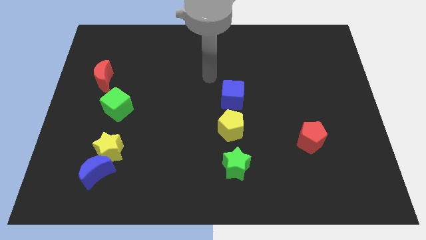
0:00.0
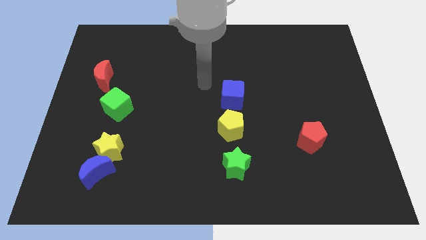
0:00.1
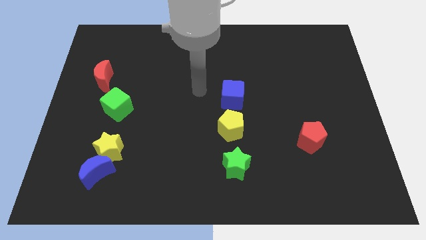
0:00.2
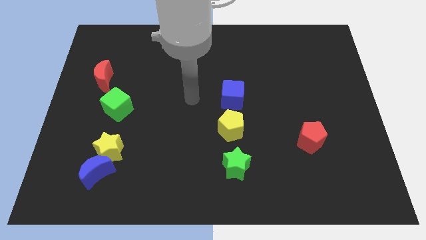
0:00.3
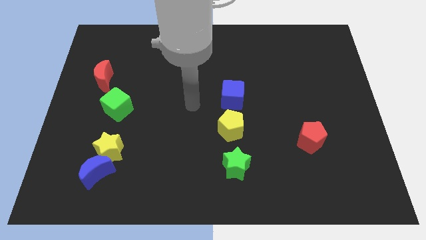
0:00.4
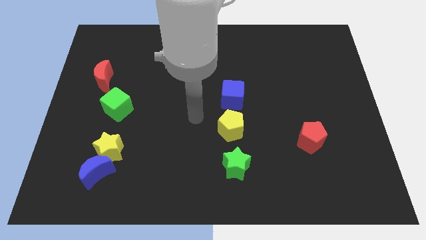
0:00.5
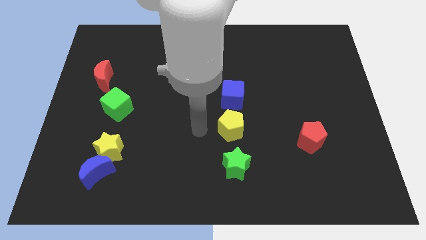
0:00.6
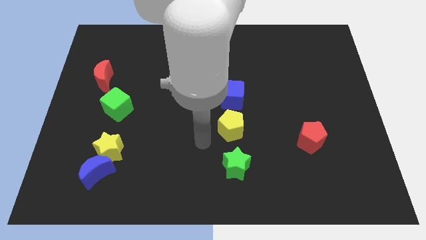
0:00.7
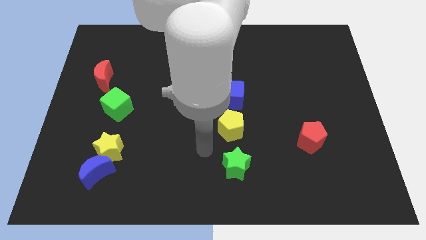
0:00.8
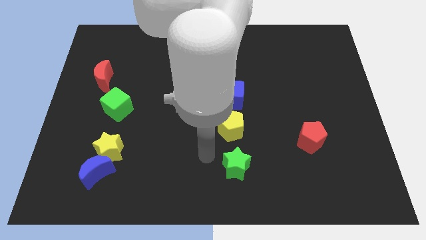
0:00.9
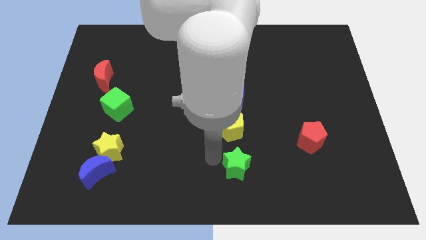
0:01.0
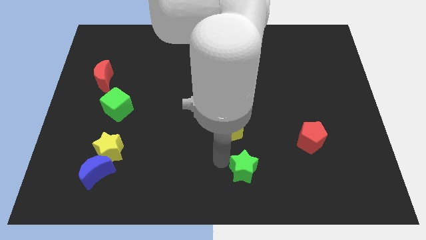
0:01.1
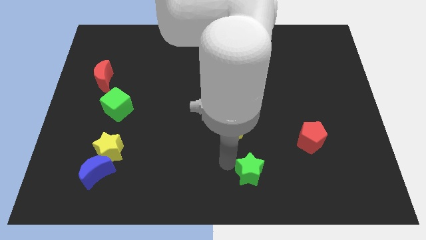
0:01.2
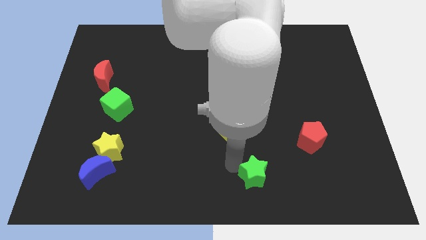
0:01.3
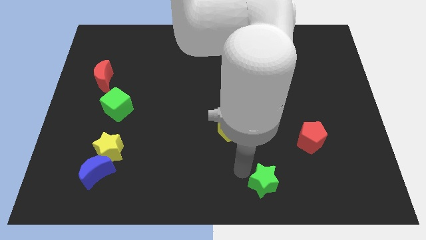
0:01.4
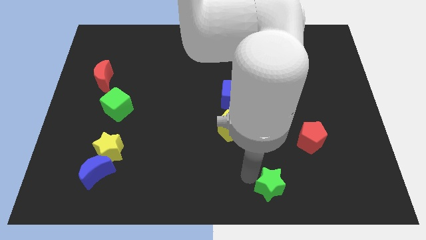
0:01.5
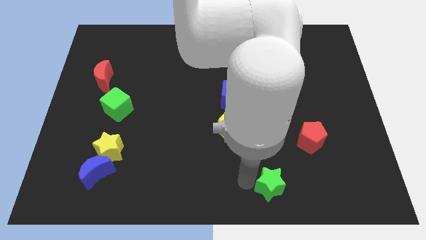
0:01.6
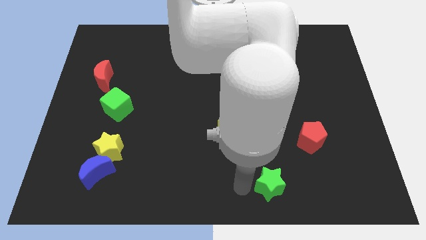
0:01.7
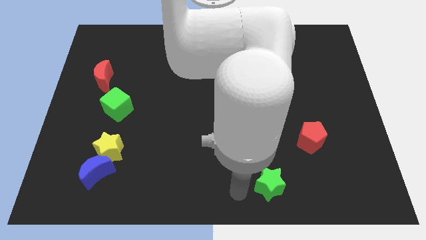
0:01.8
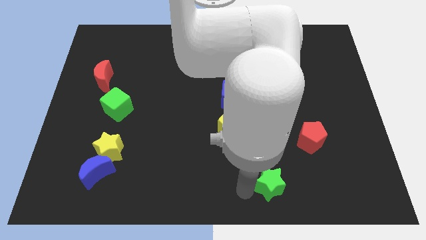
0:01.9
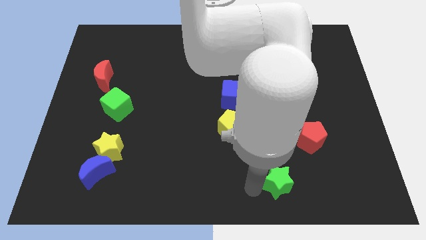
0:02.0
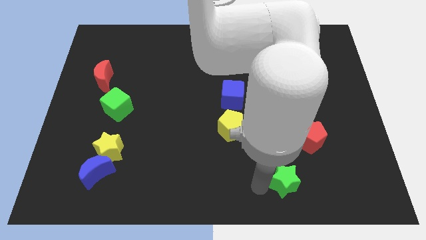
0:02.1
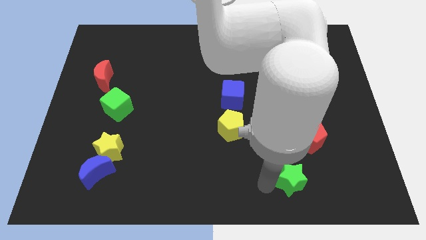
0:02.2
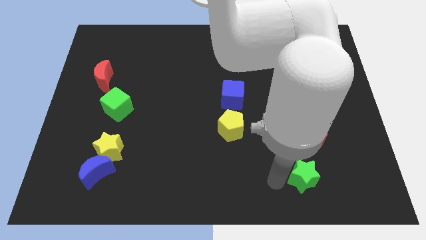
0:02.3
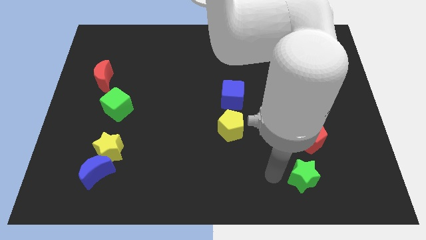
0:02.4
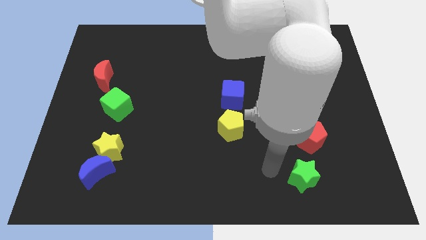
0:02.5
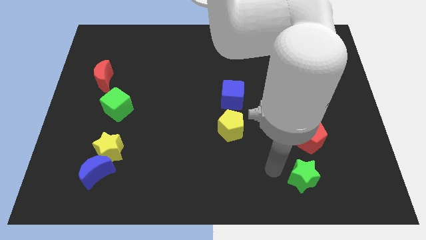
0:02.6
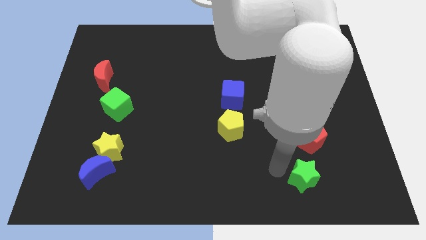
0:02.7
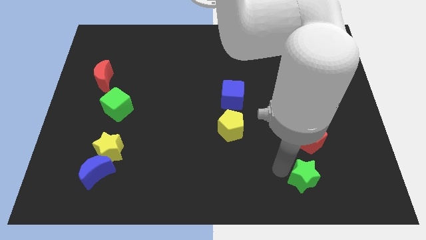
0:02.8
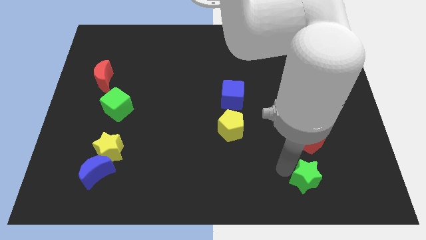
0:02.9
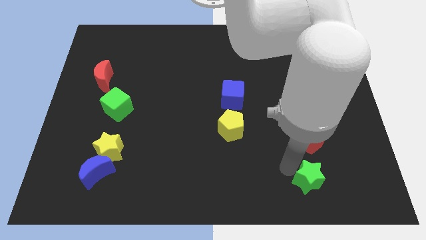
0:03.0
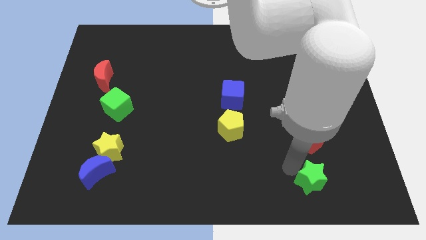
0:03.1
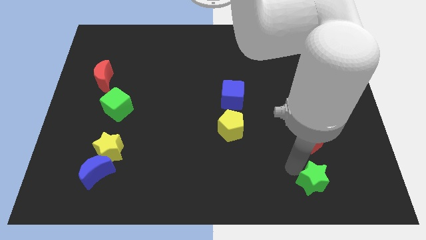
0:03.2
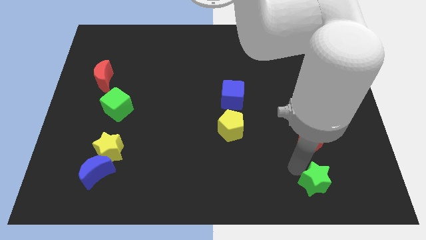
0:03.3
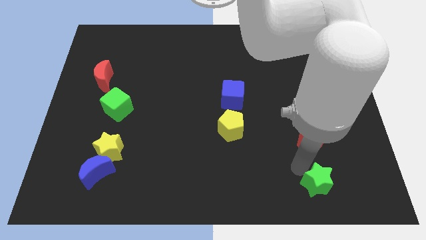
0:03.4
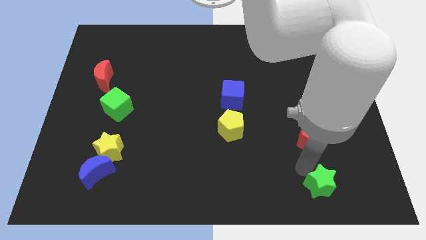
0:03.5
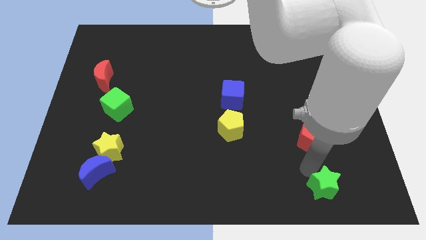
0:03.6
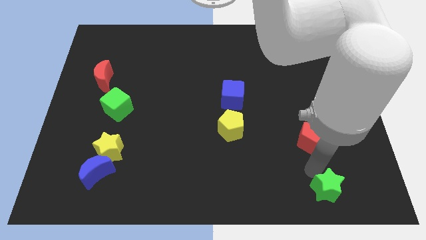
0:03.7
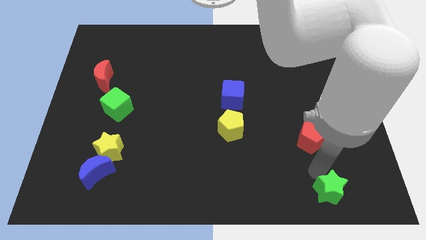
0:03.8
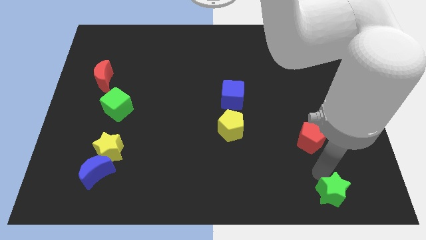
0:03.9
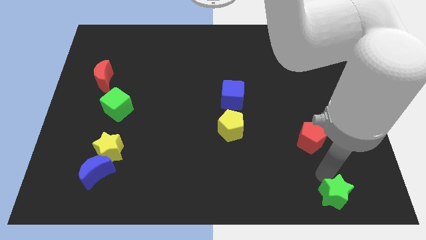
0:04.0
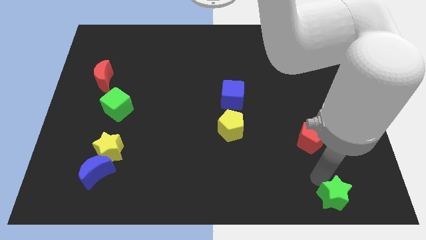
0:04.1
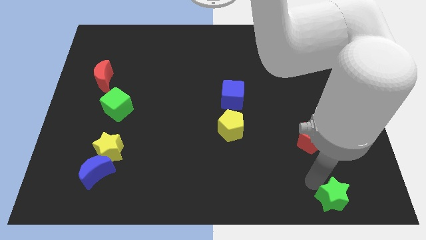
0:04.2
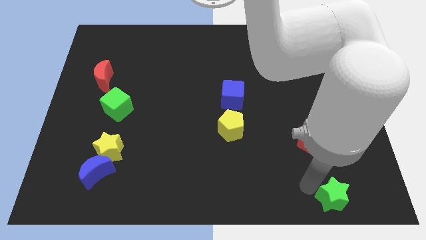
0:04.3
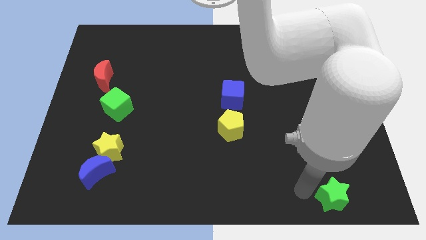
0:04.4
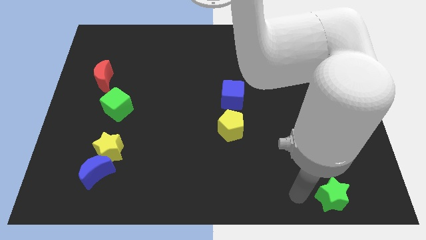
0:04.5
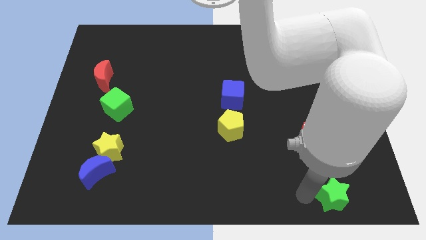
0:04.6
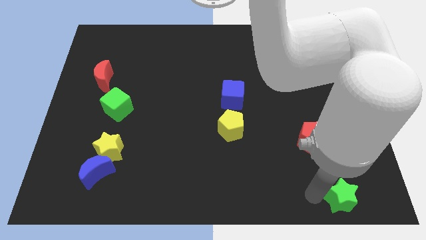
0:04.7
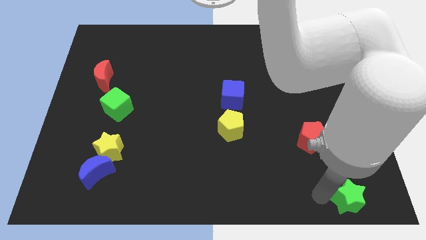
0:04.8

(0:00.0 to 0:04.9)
slide the green star to the bottom right

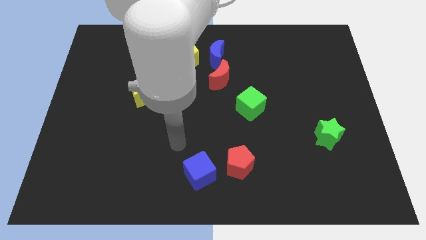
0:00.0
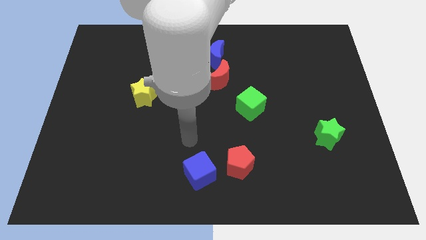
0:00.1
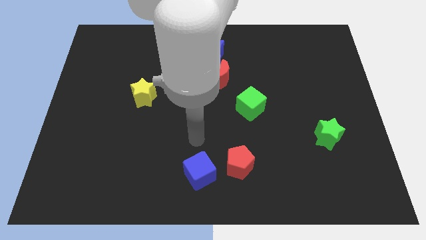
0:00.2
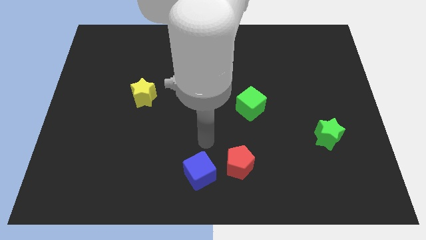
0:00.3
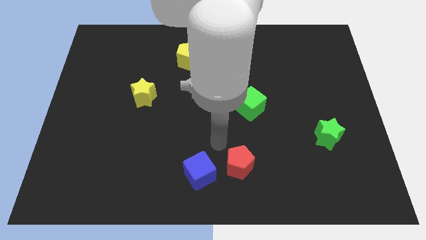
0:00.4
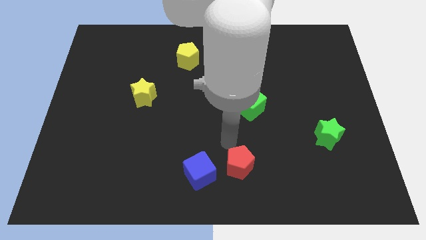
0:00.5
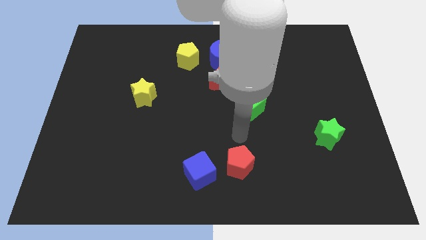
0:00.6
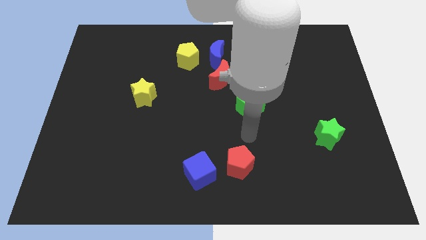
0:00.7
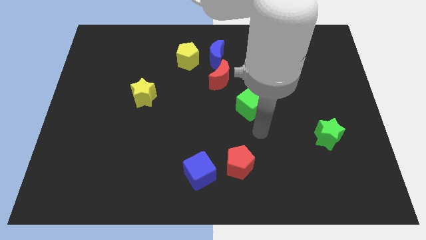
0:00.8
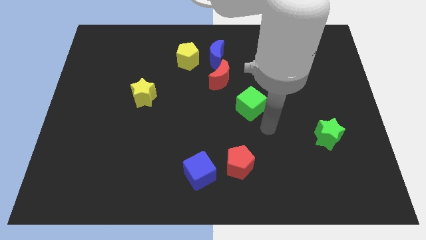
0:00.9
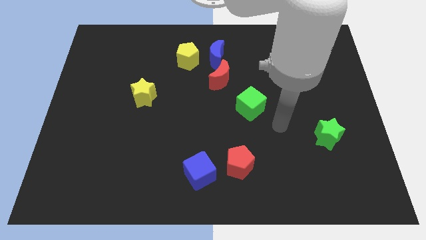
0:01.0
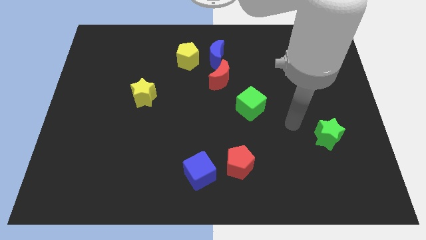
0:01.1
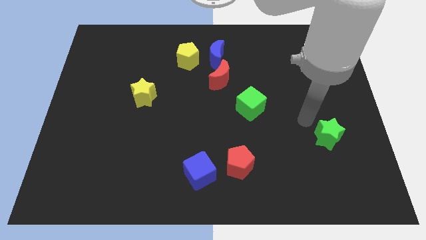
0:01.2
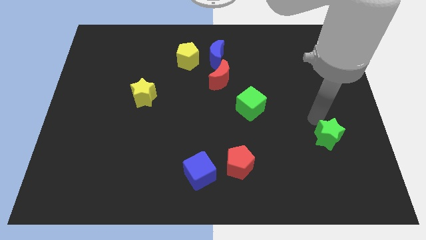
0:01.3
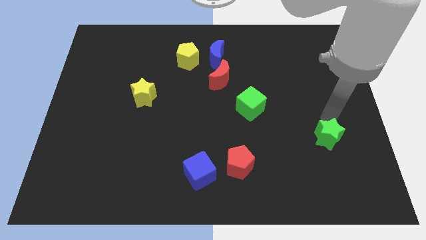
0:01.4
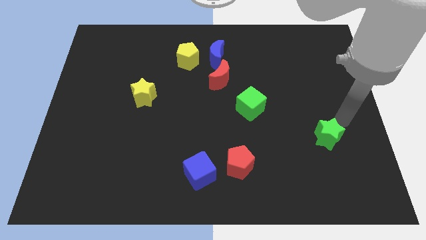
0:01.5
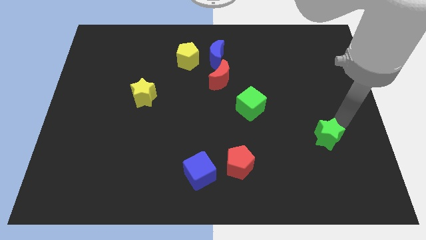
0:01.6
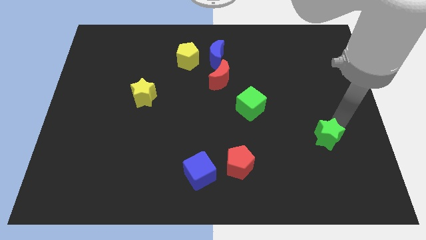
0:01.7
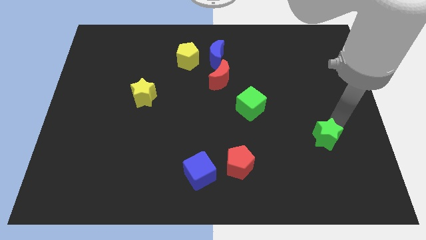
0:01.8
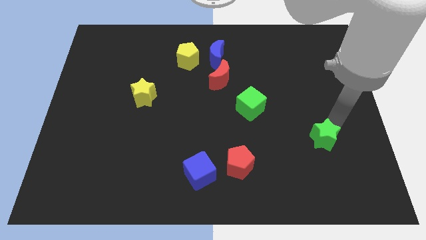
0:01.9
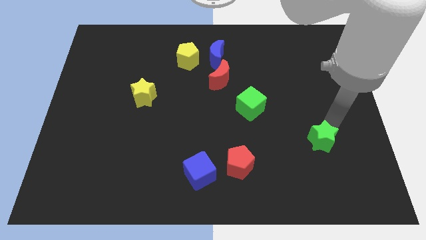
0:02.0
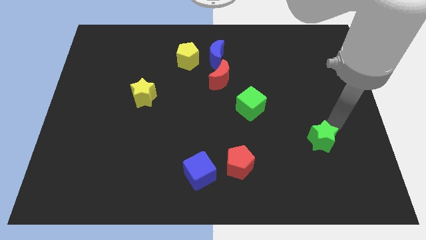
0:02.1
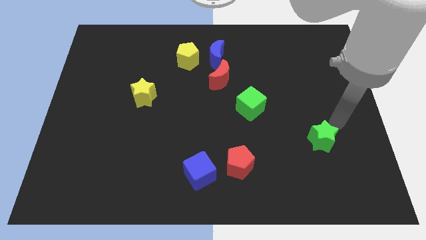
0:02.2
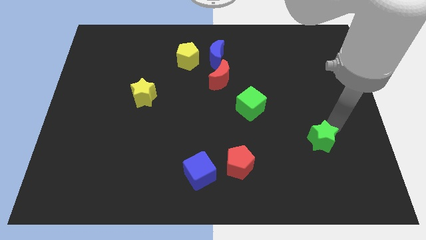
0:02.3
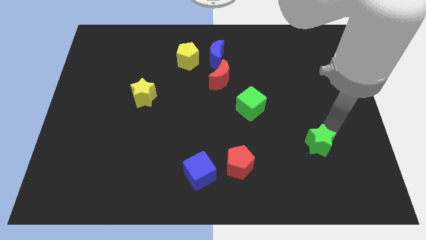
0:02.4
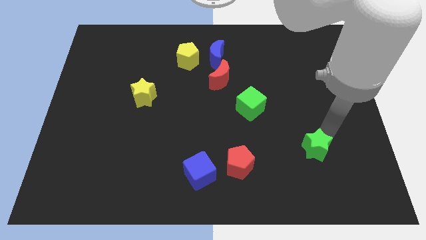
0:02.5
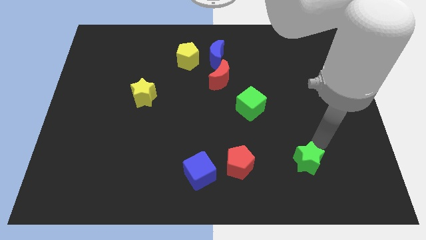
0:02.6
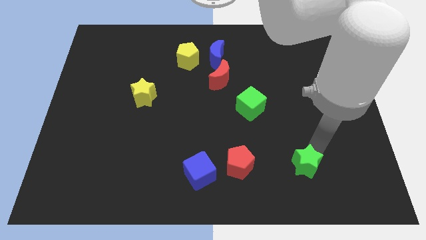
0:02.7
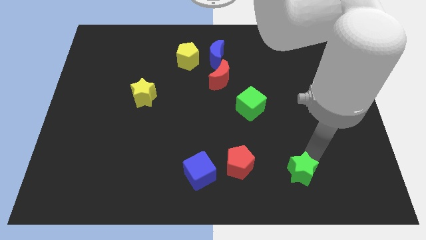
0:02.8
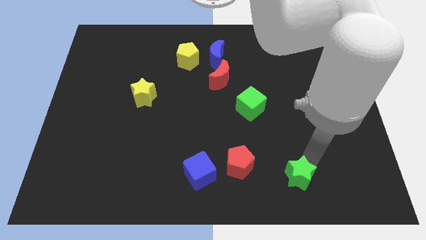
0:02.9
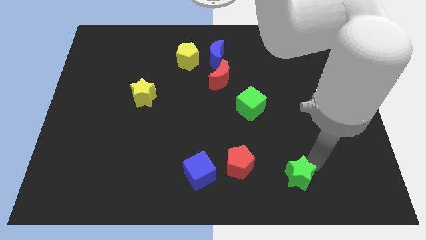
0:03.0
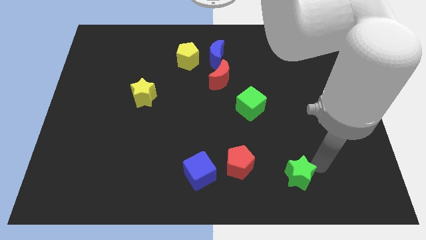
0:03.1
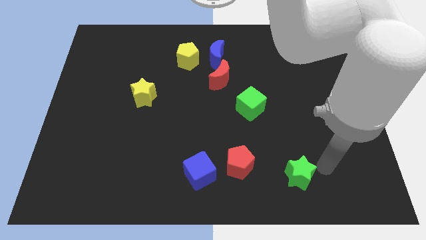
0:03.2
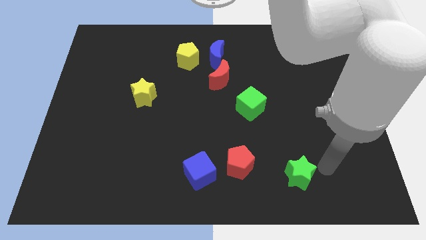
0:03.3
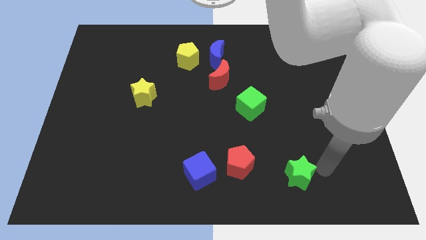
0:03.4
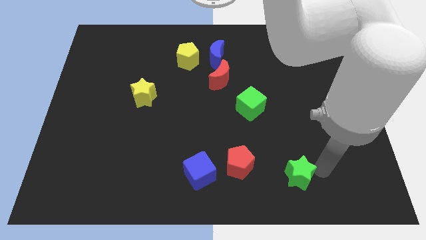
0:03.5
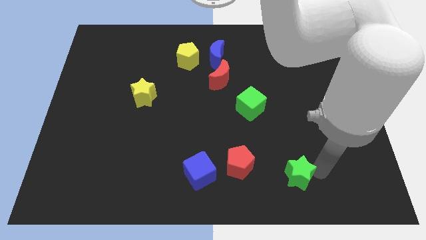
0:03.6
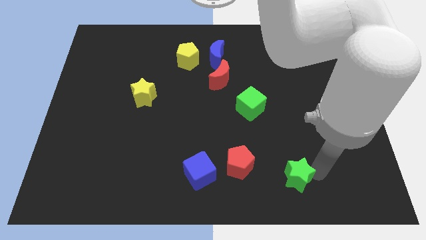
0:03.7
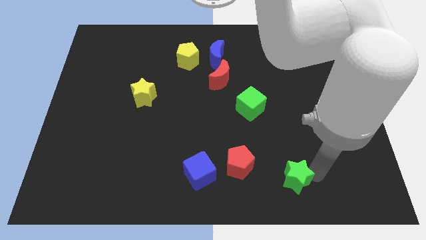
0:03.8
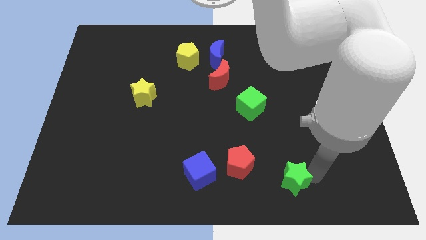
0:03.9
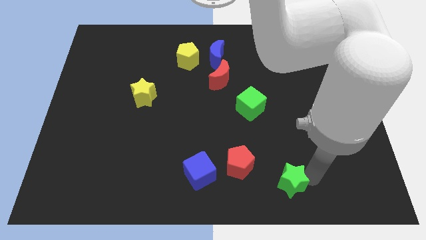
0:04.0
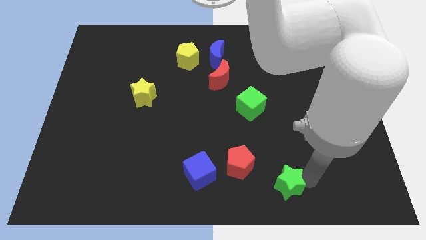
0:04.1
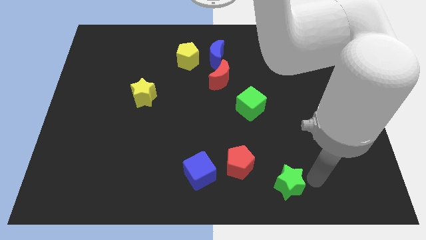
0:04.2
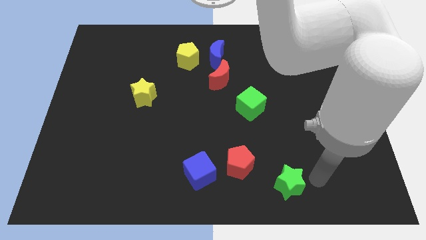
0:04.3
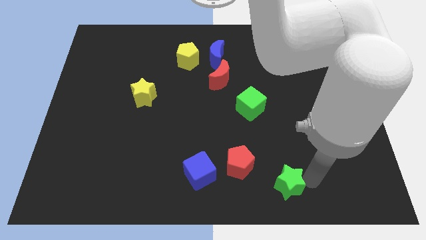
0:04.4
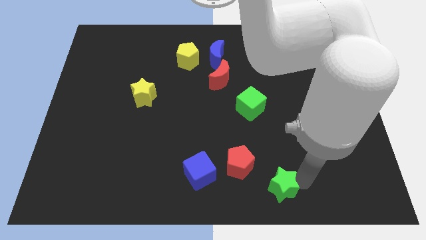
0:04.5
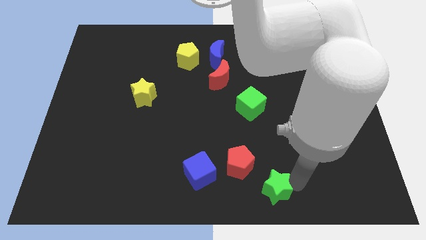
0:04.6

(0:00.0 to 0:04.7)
move the green star to the bottom side
